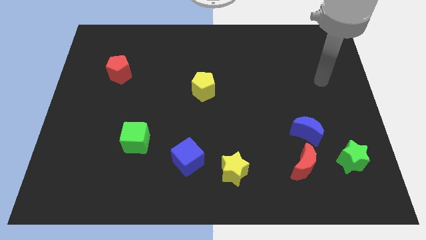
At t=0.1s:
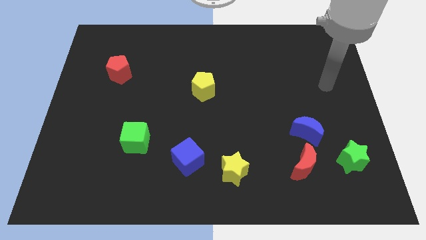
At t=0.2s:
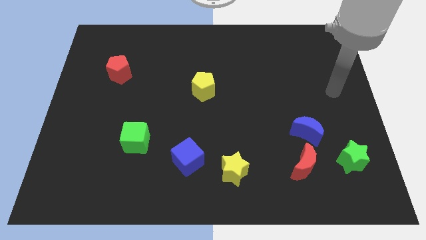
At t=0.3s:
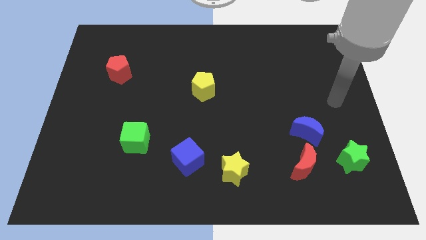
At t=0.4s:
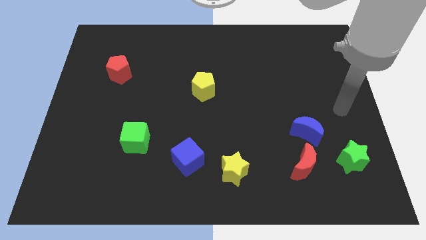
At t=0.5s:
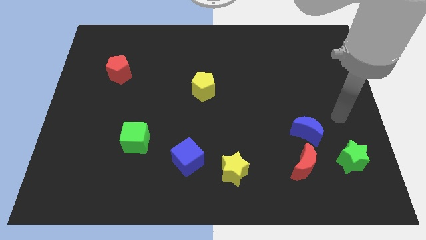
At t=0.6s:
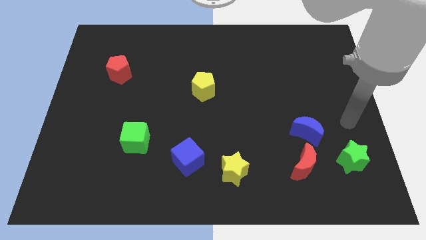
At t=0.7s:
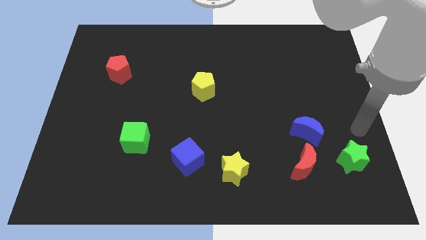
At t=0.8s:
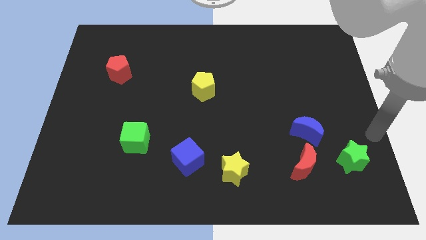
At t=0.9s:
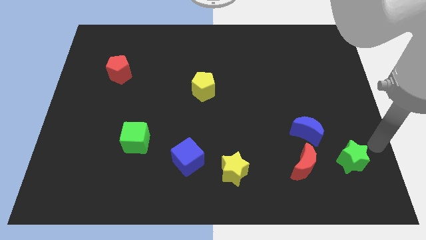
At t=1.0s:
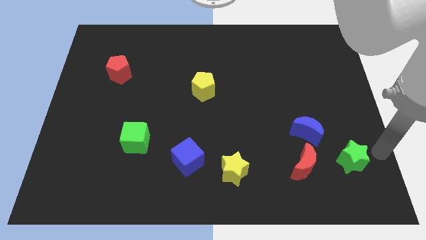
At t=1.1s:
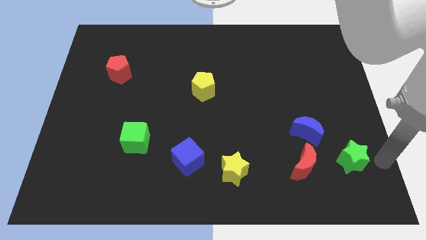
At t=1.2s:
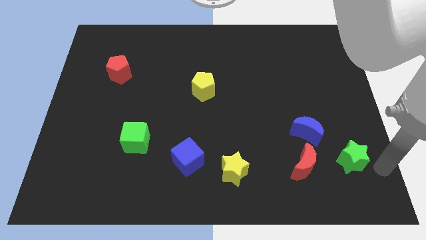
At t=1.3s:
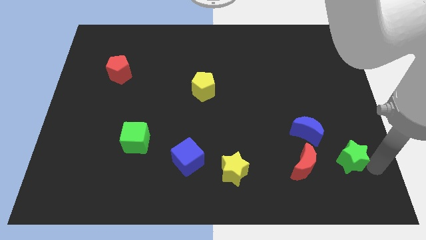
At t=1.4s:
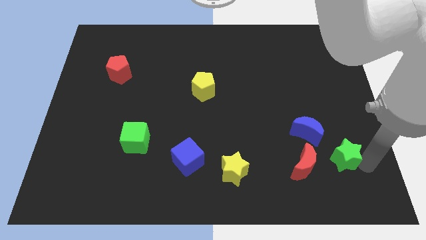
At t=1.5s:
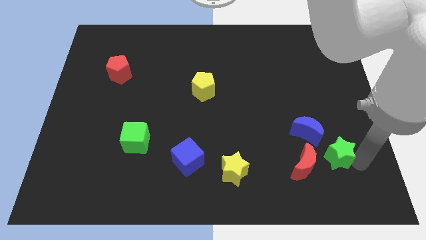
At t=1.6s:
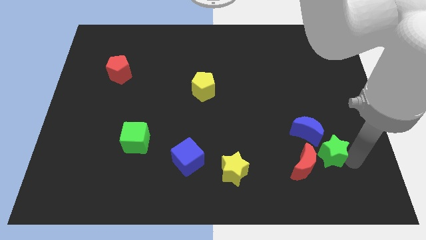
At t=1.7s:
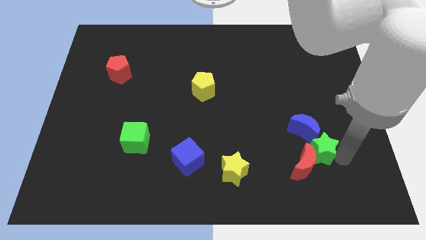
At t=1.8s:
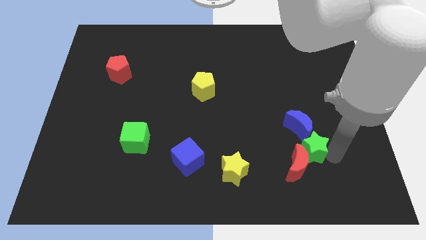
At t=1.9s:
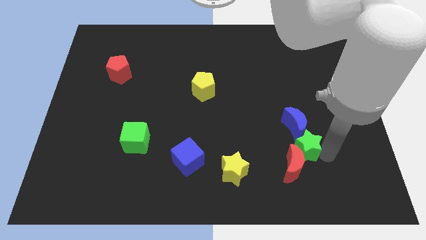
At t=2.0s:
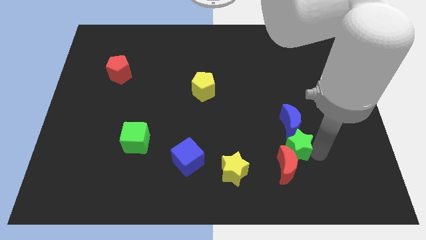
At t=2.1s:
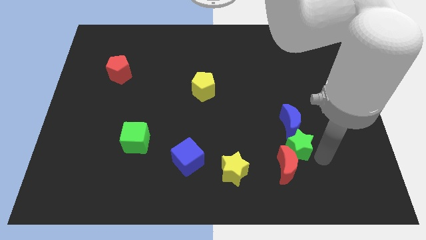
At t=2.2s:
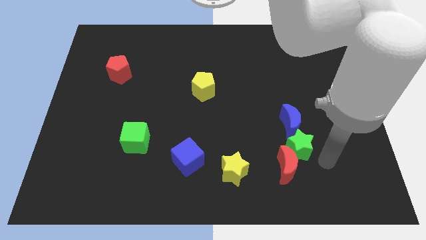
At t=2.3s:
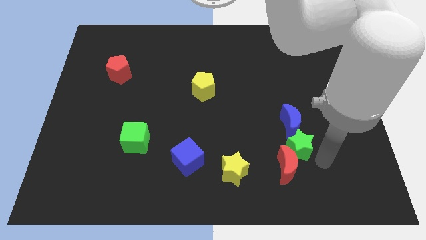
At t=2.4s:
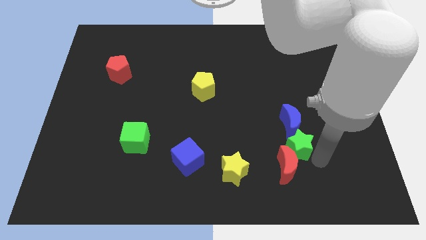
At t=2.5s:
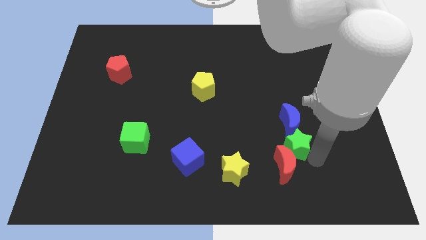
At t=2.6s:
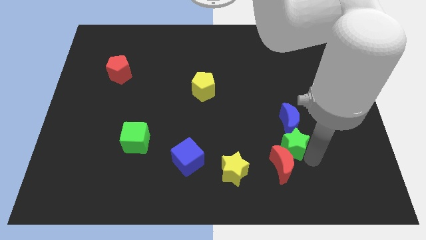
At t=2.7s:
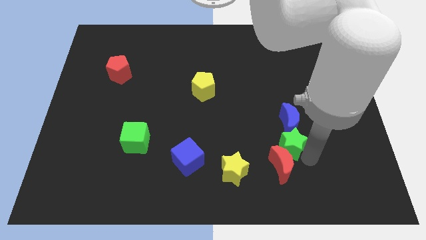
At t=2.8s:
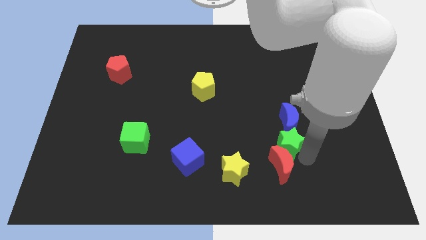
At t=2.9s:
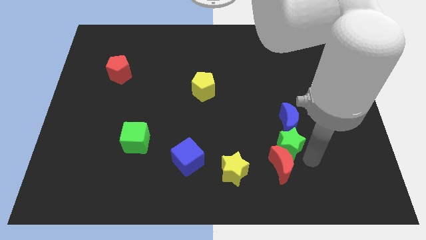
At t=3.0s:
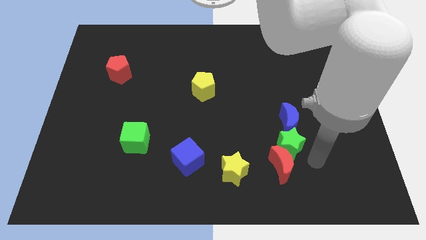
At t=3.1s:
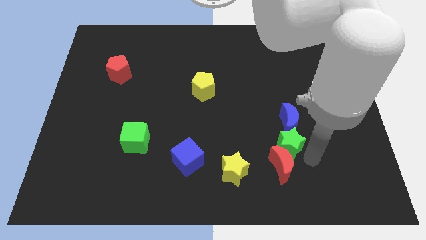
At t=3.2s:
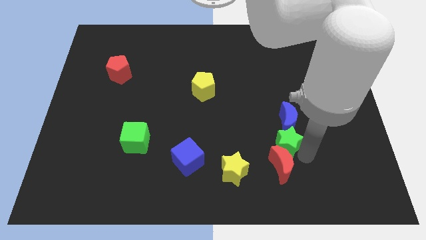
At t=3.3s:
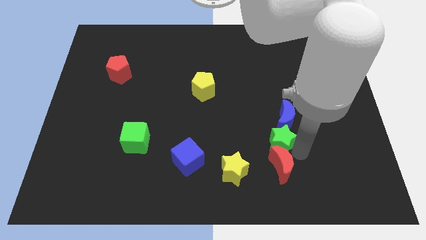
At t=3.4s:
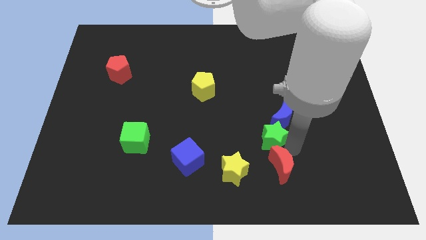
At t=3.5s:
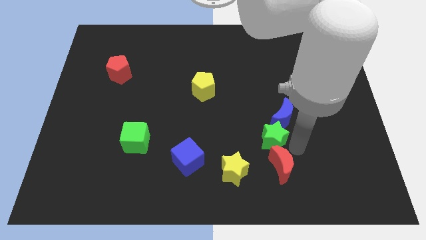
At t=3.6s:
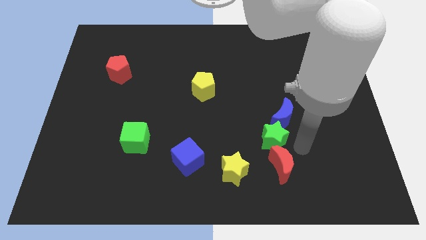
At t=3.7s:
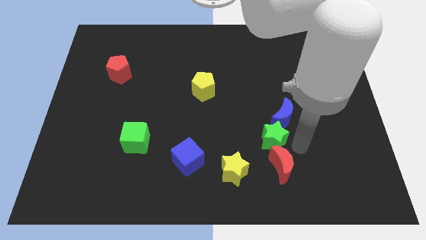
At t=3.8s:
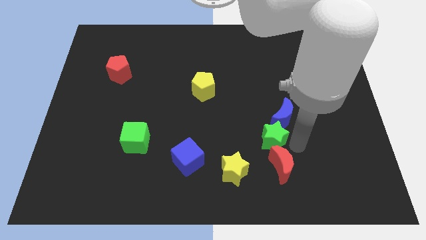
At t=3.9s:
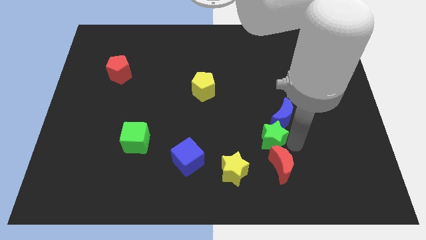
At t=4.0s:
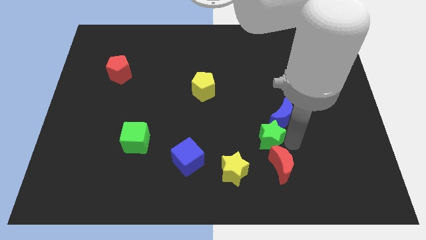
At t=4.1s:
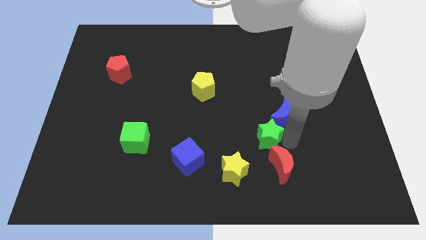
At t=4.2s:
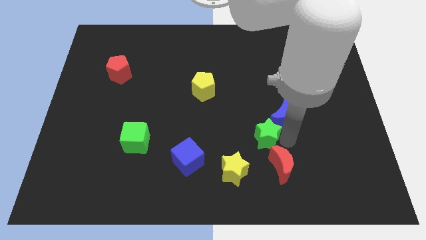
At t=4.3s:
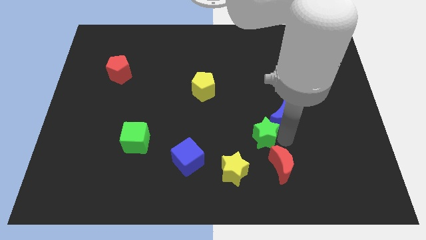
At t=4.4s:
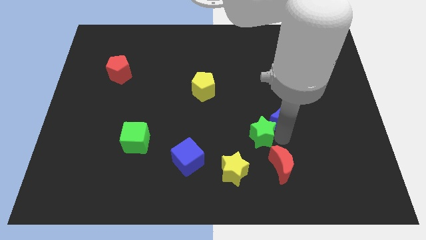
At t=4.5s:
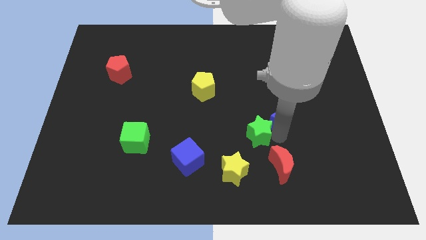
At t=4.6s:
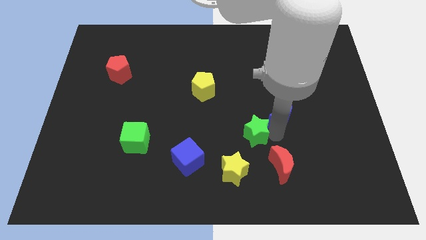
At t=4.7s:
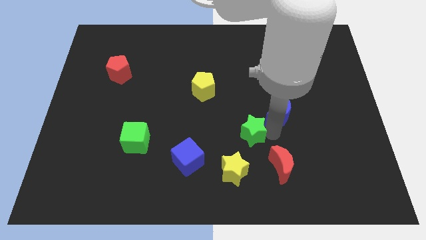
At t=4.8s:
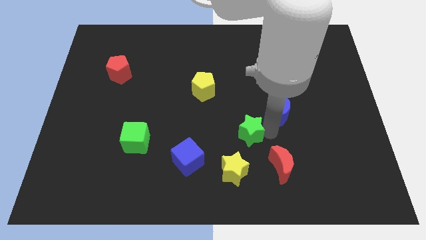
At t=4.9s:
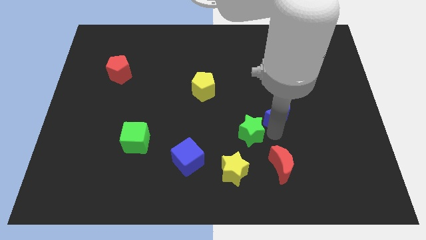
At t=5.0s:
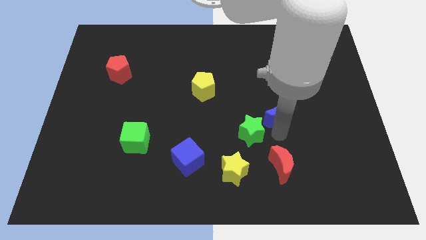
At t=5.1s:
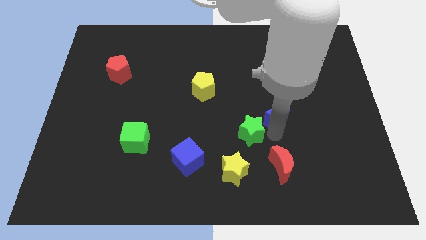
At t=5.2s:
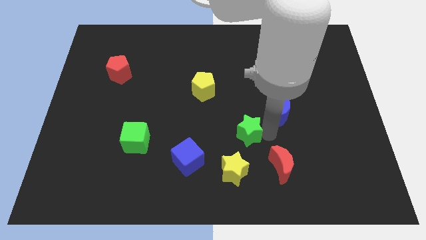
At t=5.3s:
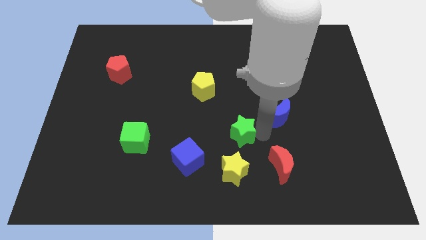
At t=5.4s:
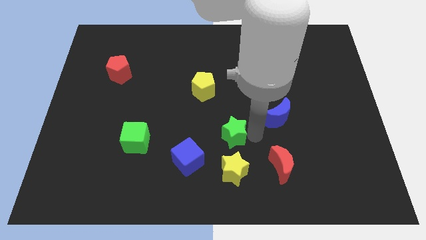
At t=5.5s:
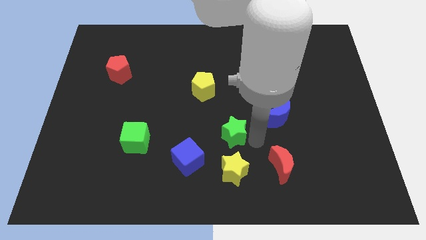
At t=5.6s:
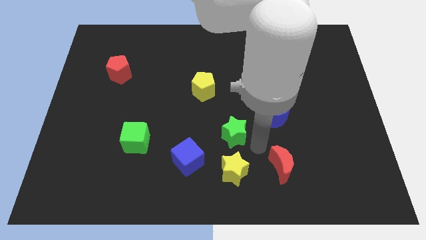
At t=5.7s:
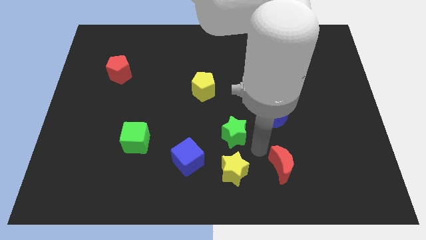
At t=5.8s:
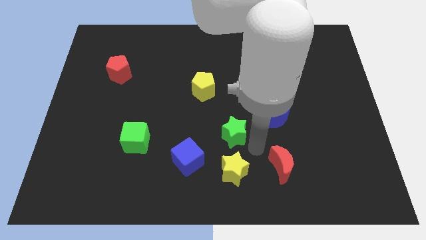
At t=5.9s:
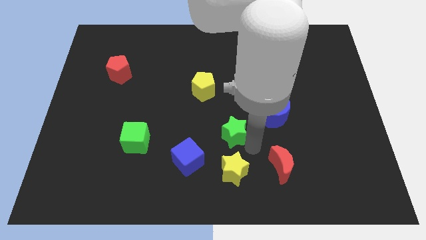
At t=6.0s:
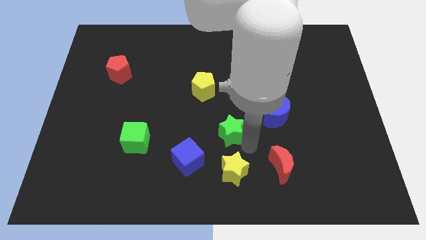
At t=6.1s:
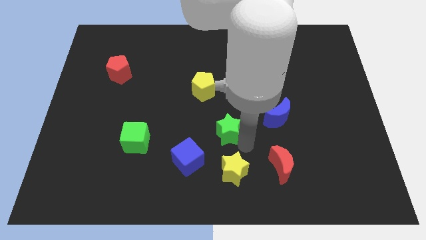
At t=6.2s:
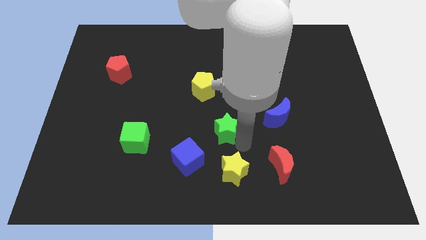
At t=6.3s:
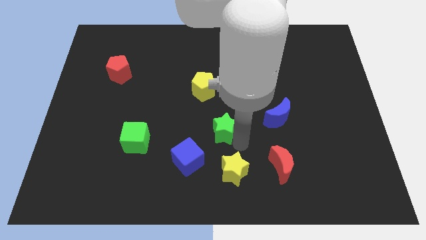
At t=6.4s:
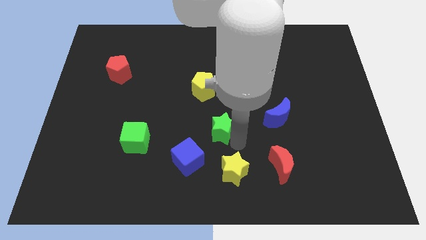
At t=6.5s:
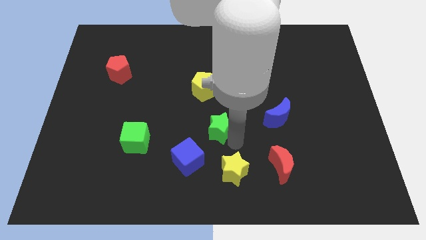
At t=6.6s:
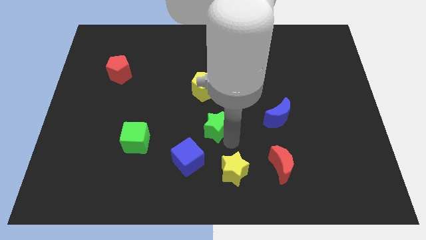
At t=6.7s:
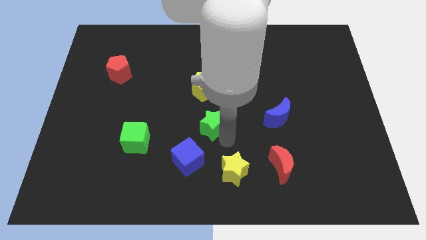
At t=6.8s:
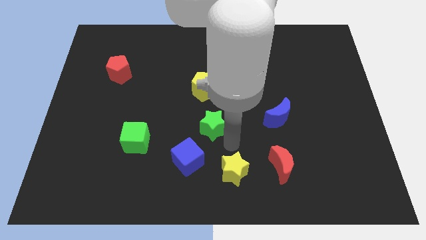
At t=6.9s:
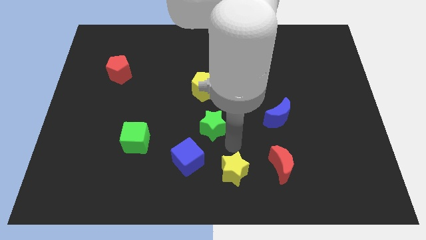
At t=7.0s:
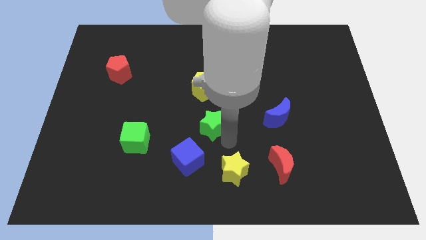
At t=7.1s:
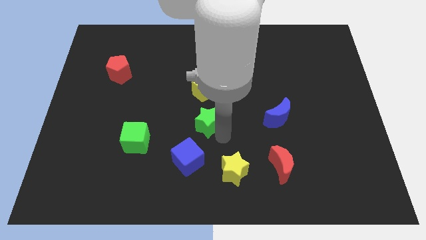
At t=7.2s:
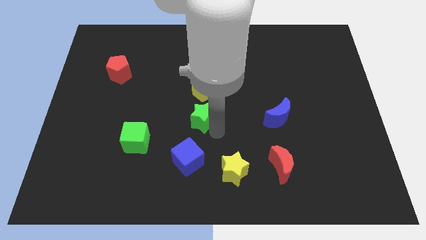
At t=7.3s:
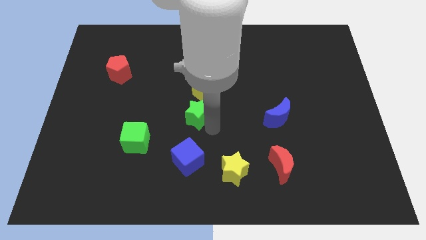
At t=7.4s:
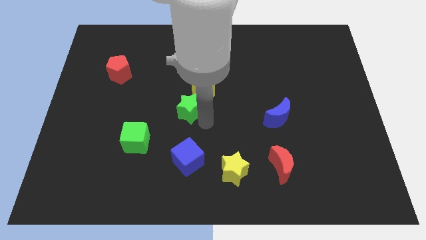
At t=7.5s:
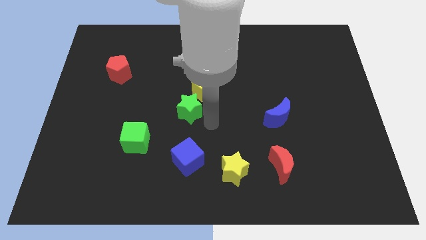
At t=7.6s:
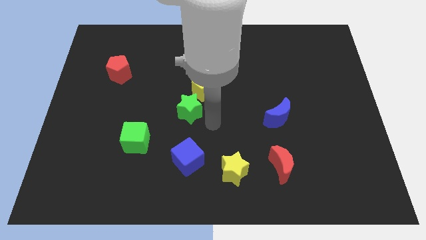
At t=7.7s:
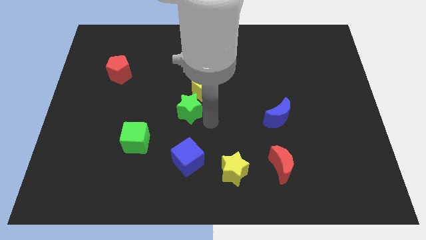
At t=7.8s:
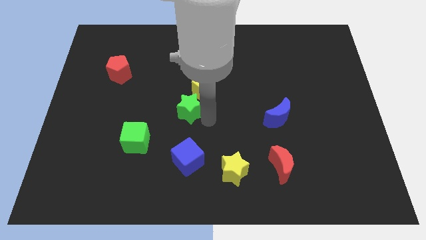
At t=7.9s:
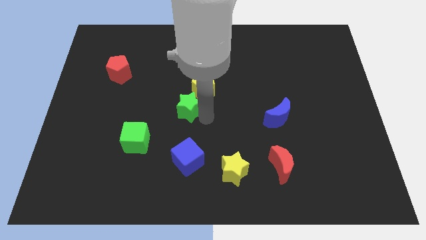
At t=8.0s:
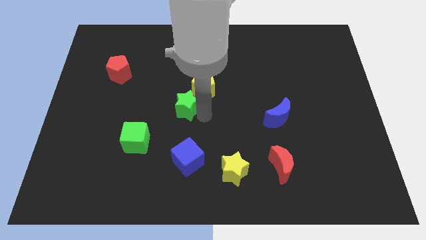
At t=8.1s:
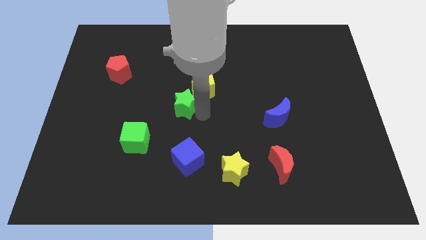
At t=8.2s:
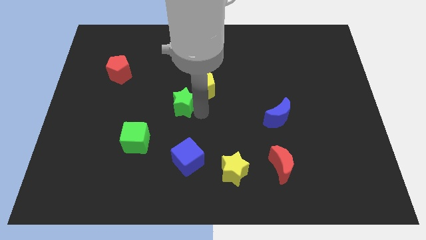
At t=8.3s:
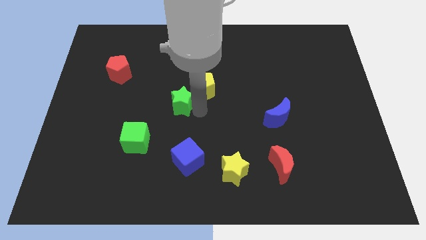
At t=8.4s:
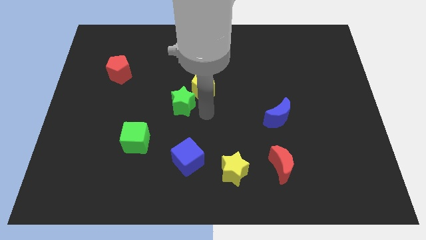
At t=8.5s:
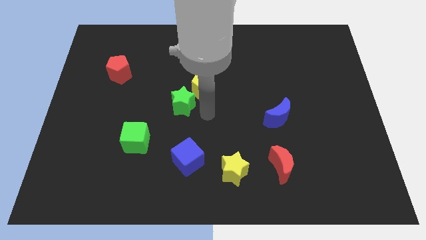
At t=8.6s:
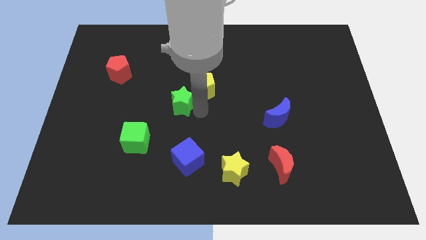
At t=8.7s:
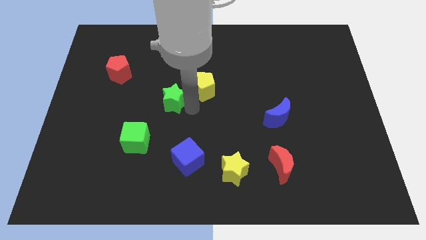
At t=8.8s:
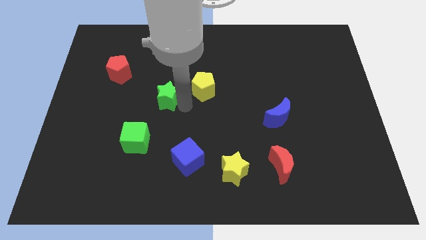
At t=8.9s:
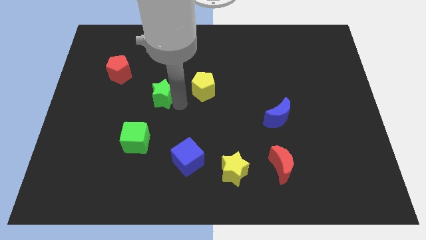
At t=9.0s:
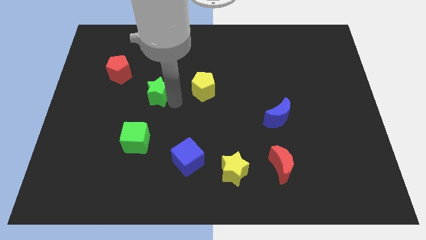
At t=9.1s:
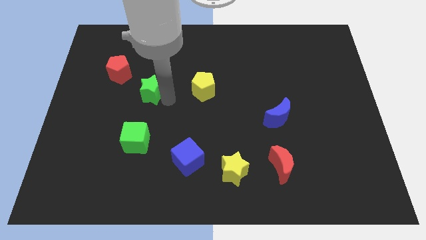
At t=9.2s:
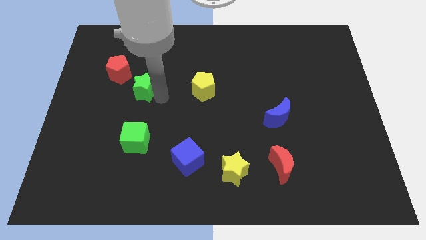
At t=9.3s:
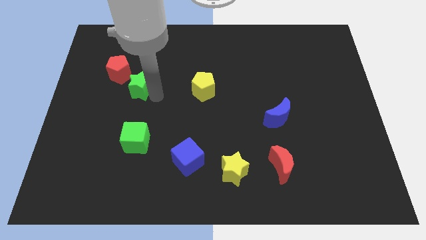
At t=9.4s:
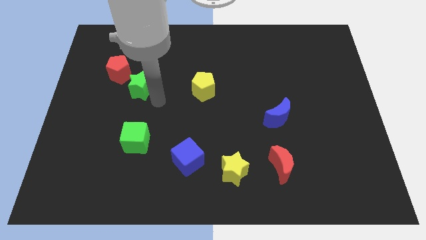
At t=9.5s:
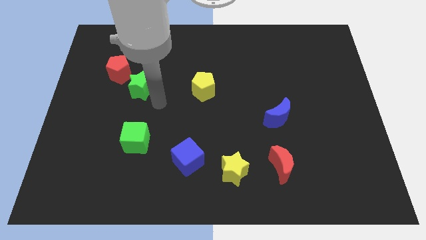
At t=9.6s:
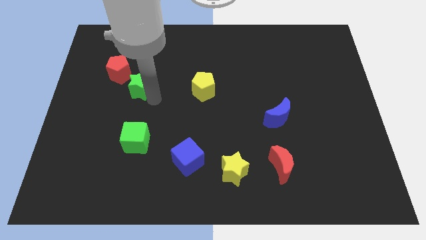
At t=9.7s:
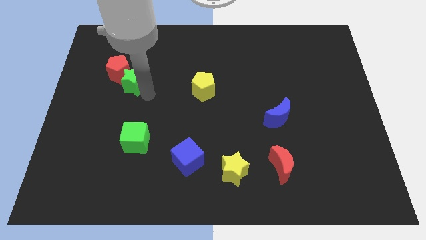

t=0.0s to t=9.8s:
move the green star close to the red pentagon
